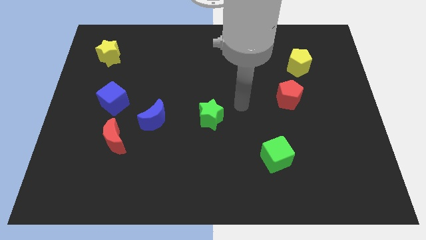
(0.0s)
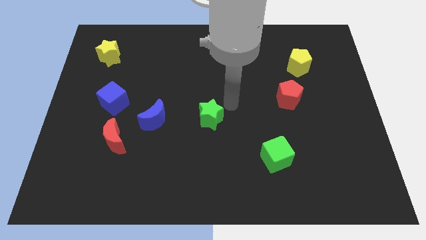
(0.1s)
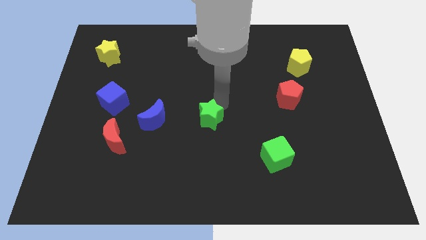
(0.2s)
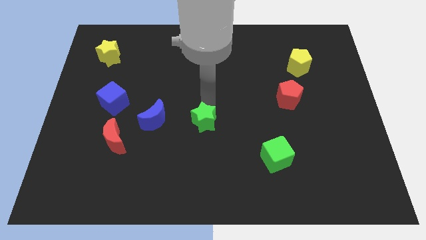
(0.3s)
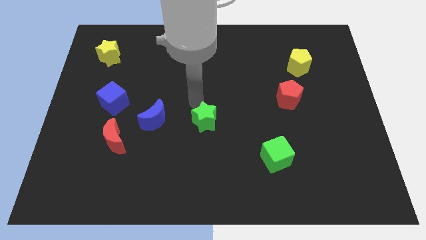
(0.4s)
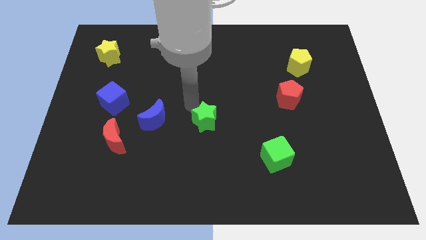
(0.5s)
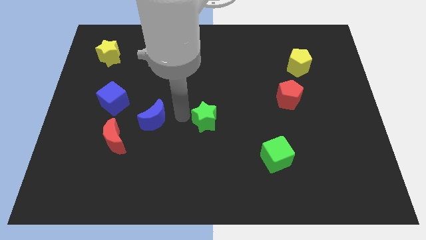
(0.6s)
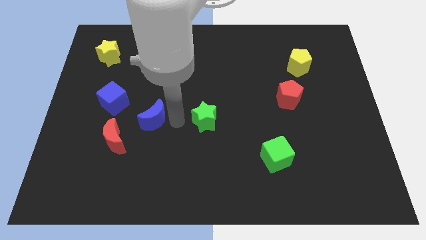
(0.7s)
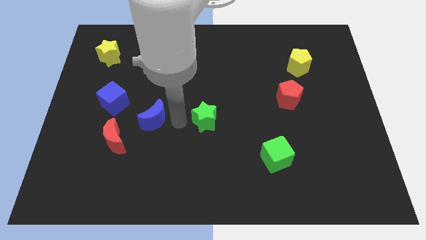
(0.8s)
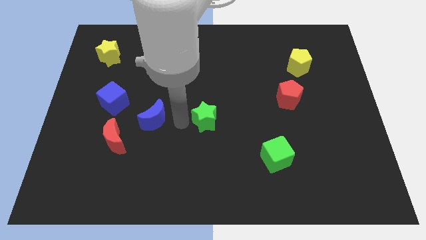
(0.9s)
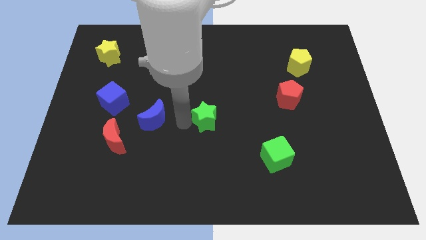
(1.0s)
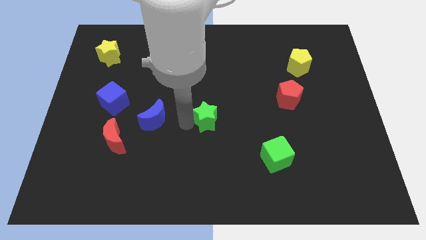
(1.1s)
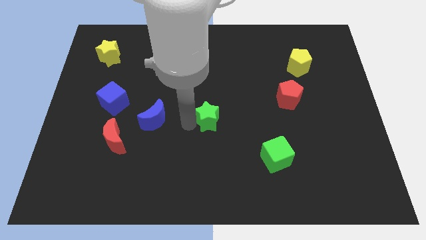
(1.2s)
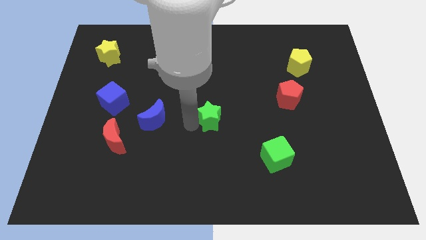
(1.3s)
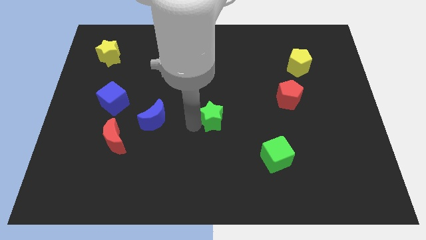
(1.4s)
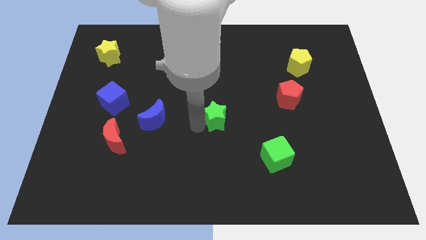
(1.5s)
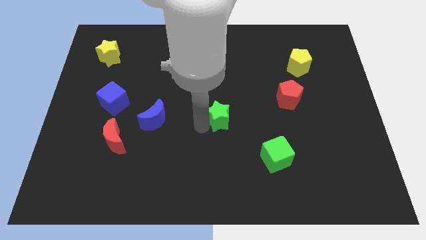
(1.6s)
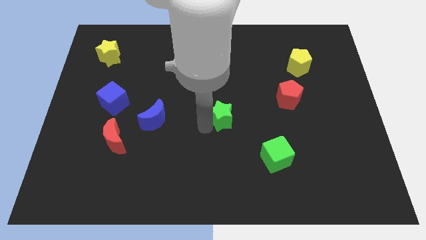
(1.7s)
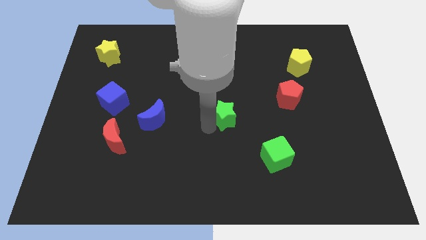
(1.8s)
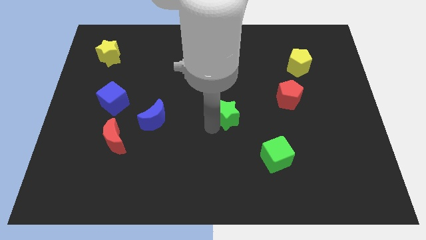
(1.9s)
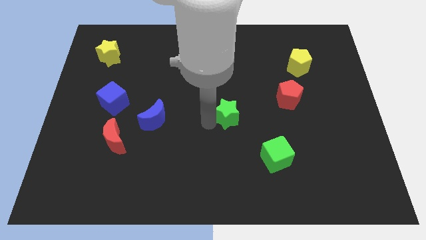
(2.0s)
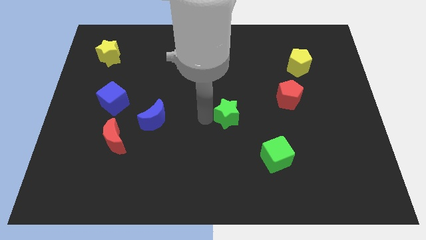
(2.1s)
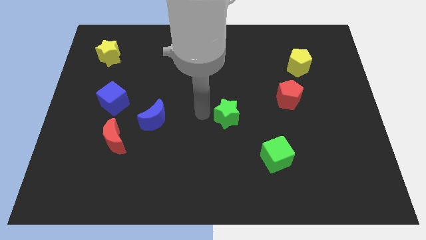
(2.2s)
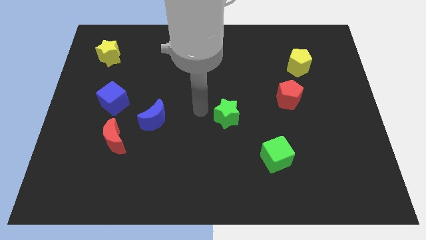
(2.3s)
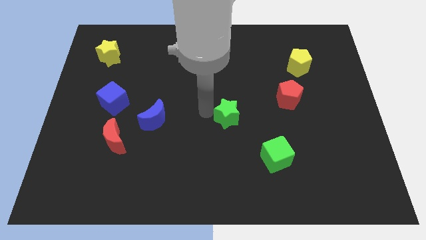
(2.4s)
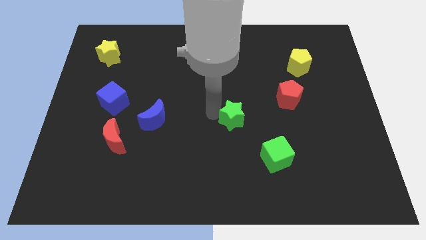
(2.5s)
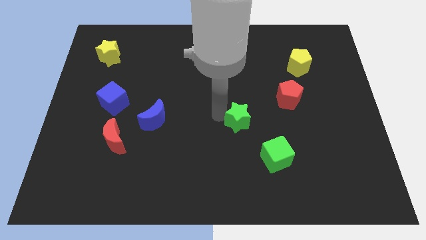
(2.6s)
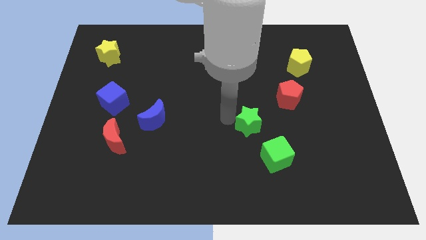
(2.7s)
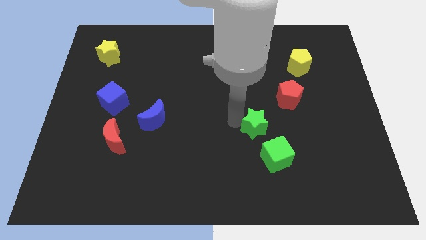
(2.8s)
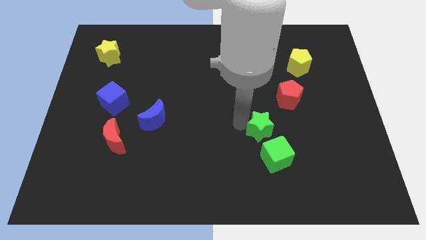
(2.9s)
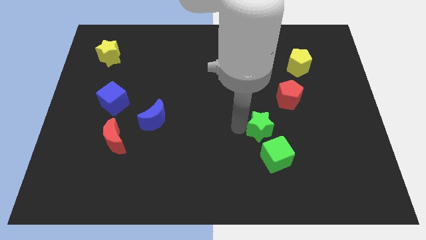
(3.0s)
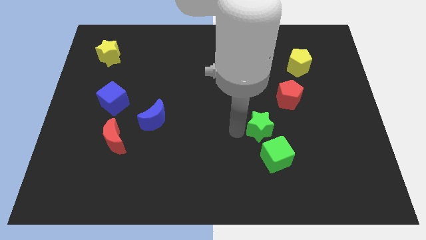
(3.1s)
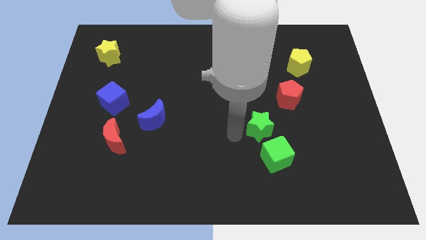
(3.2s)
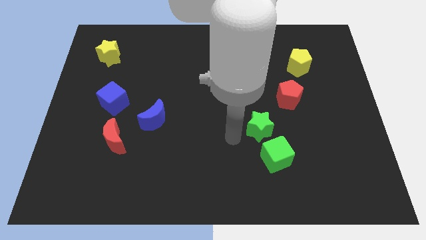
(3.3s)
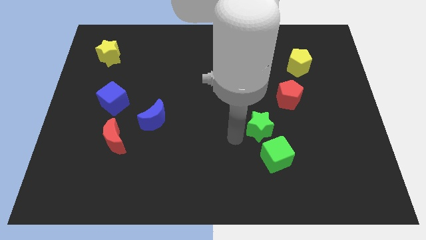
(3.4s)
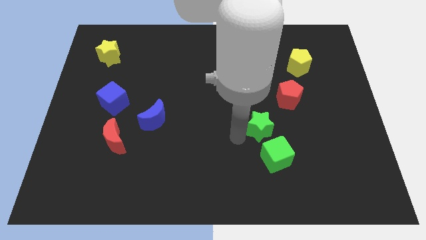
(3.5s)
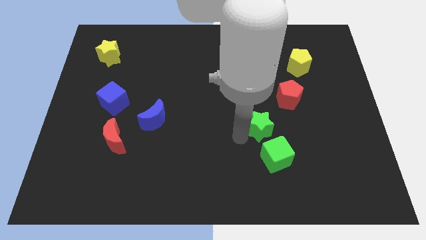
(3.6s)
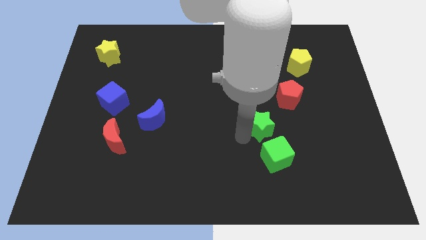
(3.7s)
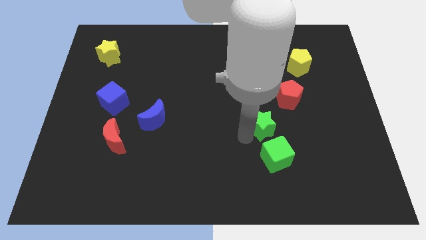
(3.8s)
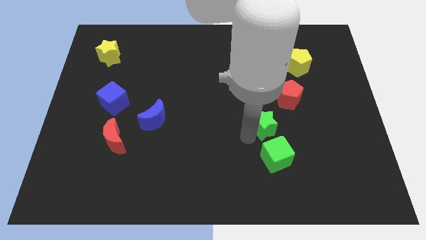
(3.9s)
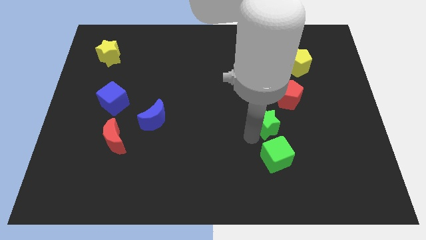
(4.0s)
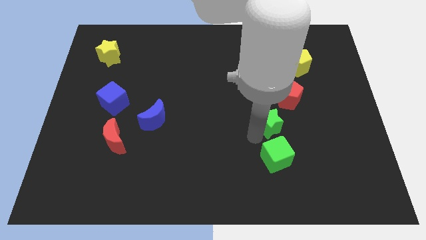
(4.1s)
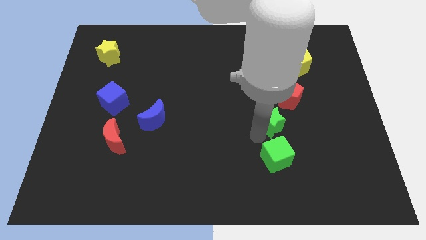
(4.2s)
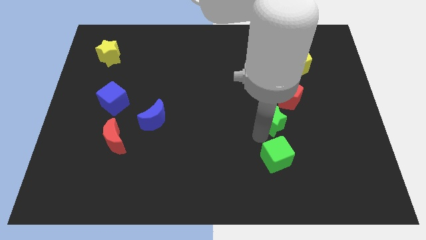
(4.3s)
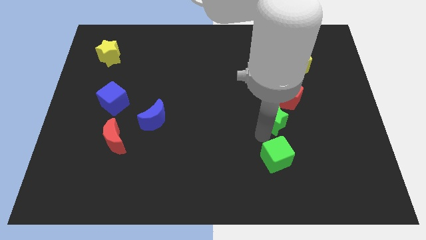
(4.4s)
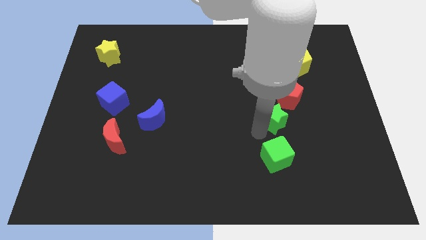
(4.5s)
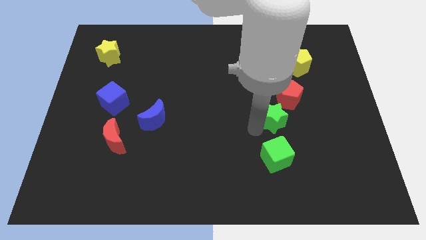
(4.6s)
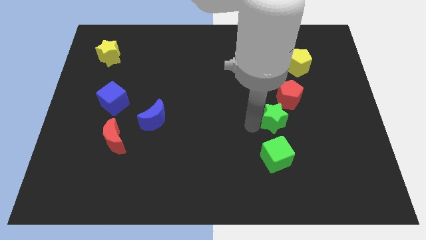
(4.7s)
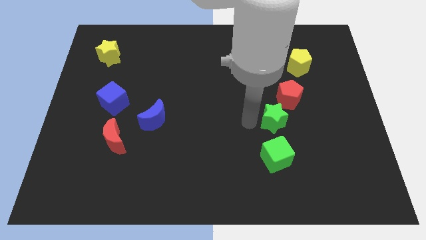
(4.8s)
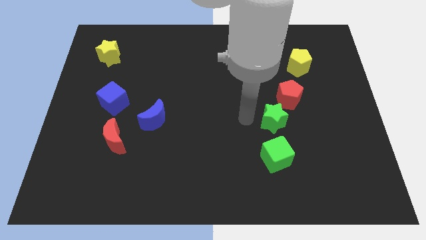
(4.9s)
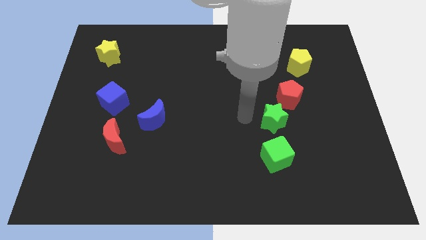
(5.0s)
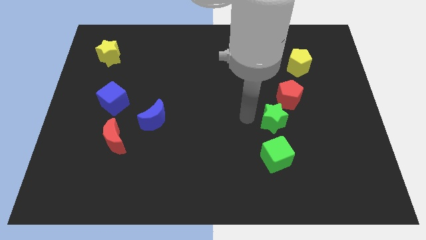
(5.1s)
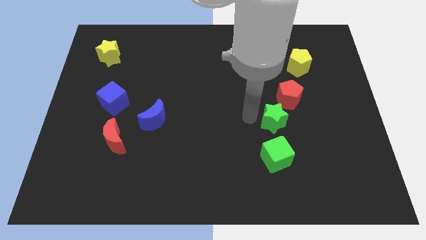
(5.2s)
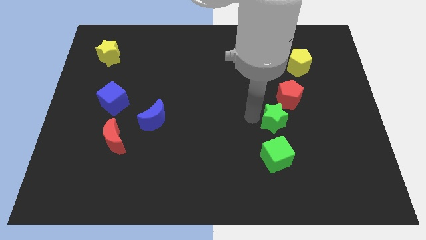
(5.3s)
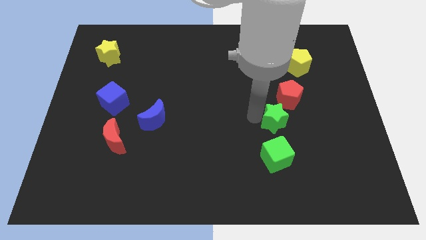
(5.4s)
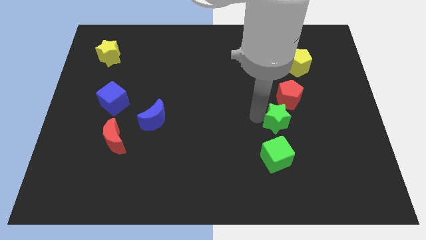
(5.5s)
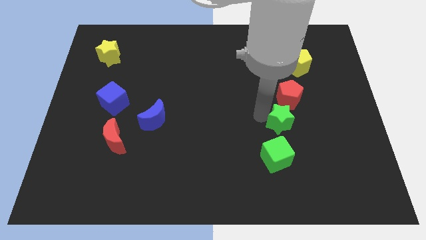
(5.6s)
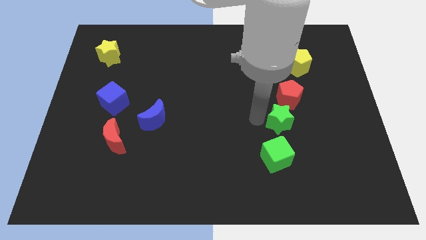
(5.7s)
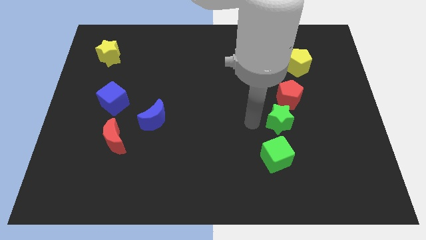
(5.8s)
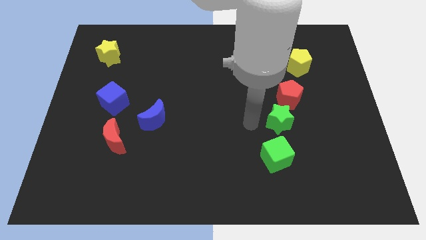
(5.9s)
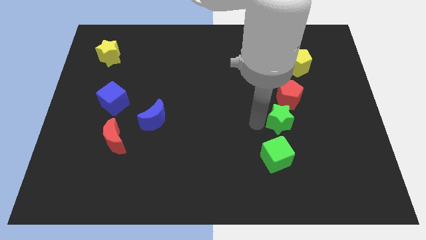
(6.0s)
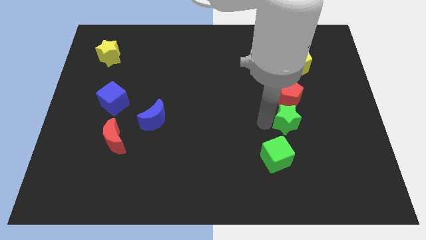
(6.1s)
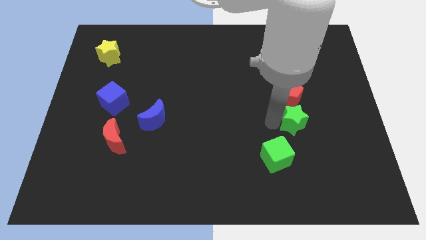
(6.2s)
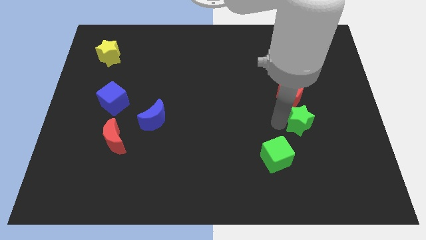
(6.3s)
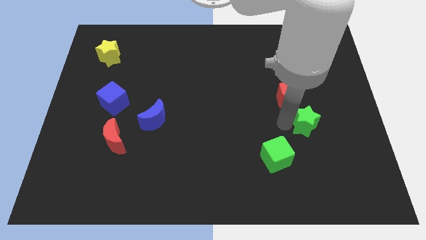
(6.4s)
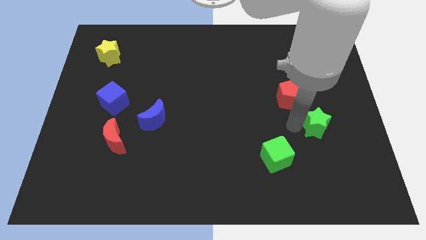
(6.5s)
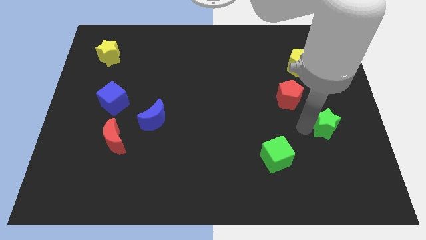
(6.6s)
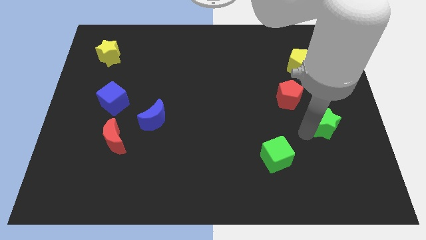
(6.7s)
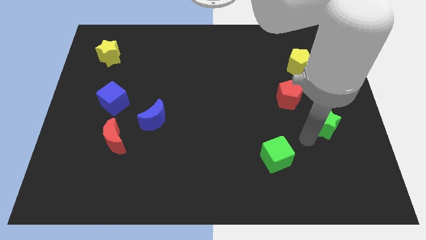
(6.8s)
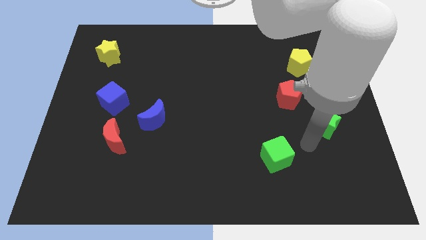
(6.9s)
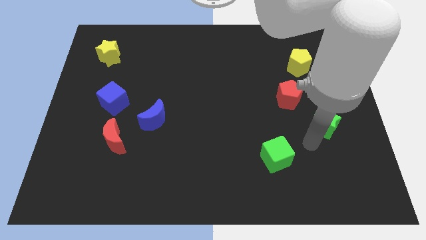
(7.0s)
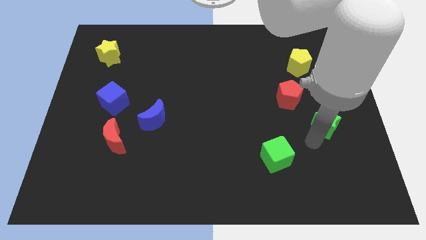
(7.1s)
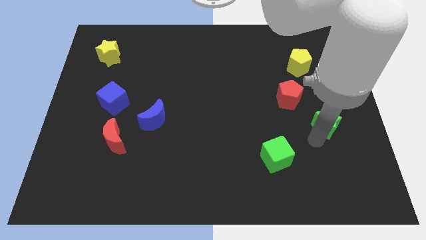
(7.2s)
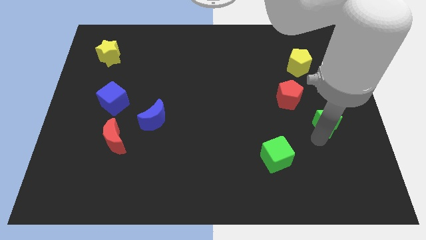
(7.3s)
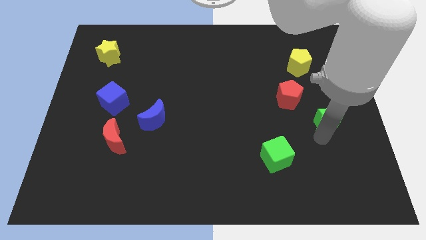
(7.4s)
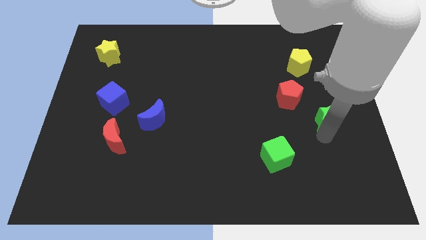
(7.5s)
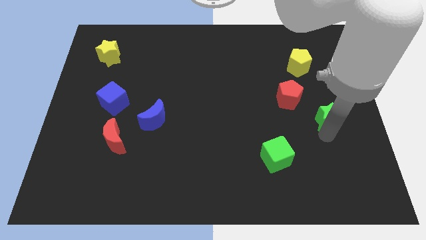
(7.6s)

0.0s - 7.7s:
push the green star to the right side
